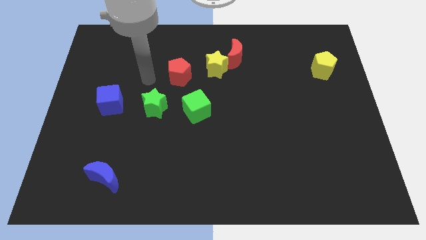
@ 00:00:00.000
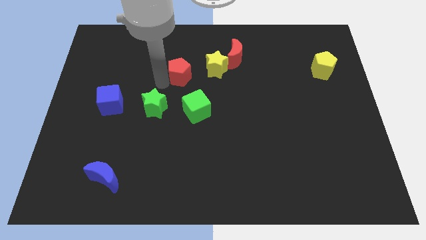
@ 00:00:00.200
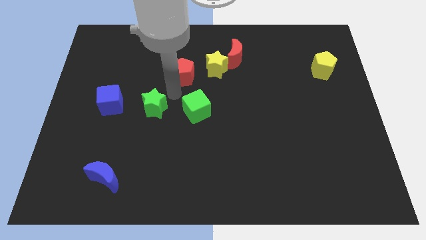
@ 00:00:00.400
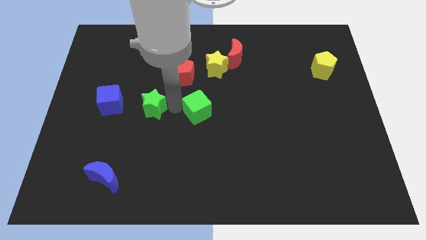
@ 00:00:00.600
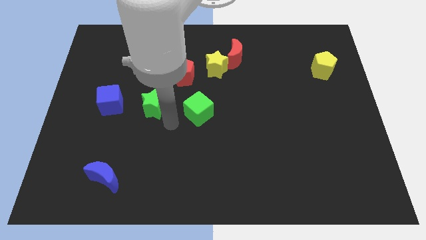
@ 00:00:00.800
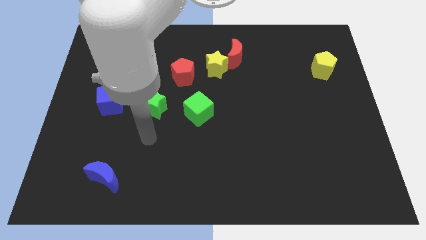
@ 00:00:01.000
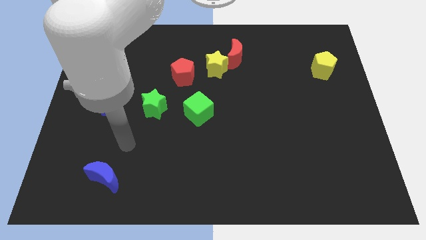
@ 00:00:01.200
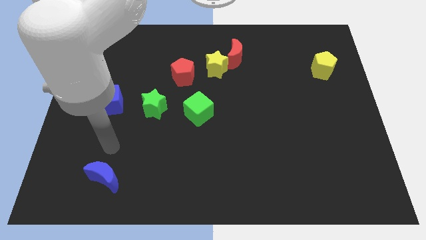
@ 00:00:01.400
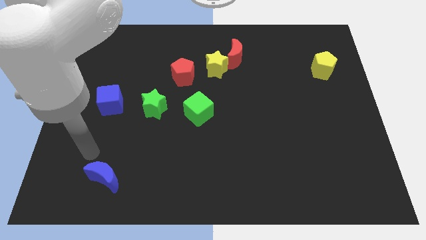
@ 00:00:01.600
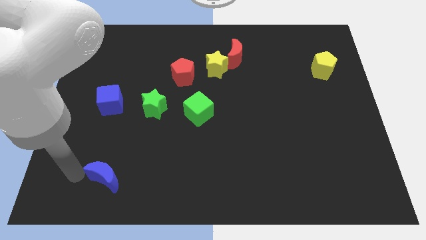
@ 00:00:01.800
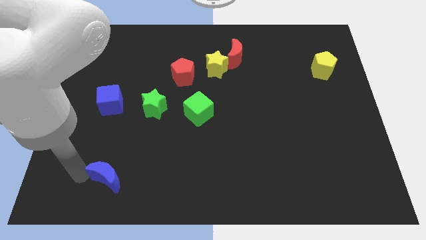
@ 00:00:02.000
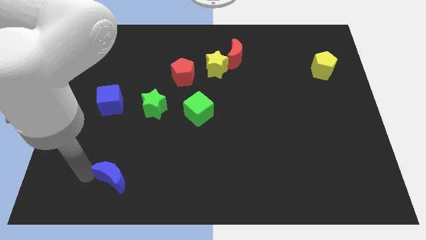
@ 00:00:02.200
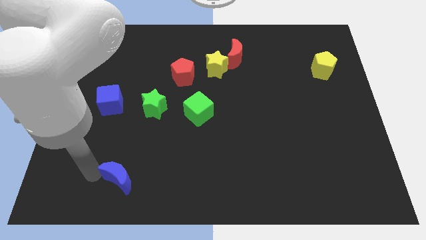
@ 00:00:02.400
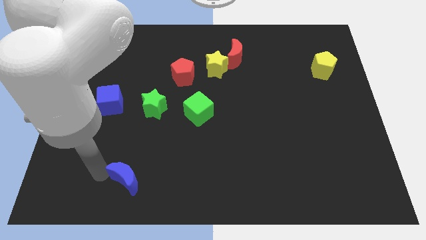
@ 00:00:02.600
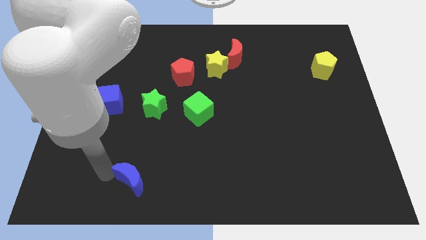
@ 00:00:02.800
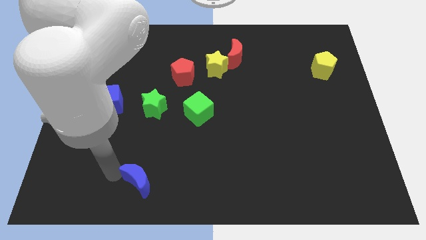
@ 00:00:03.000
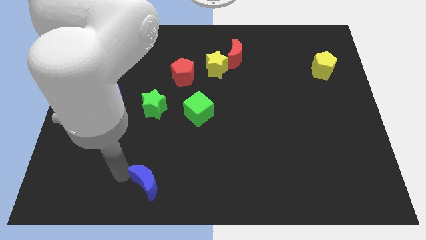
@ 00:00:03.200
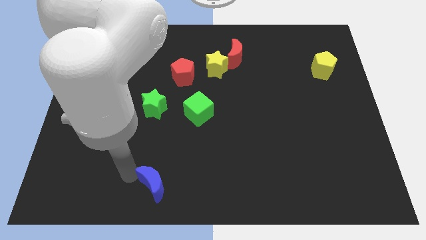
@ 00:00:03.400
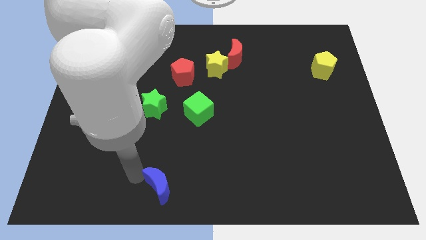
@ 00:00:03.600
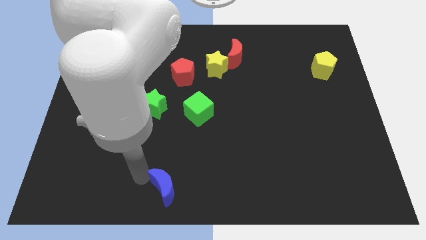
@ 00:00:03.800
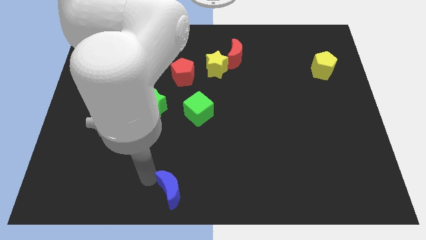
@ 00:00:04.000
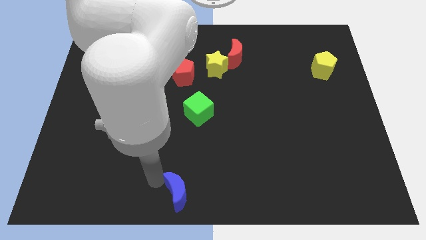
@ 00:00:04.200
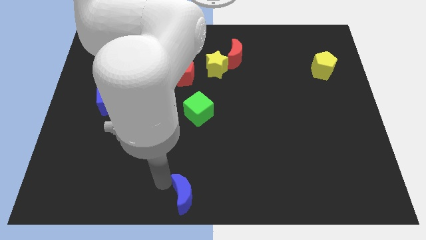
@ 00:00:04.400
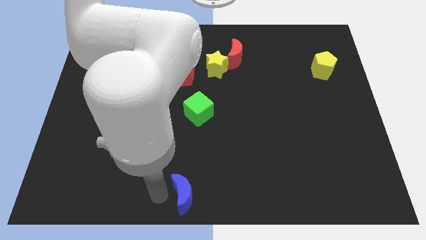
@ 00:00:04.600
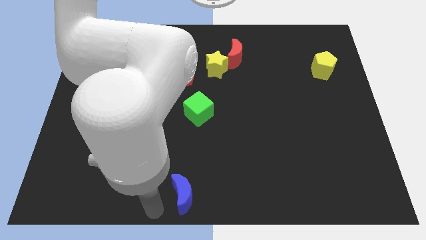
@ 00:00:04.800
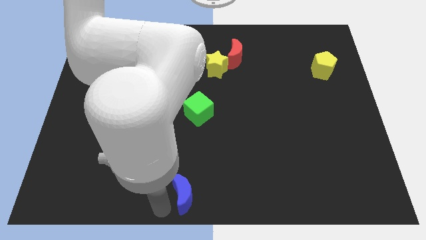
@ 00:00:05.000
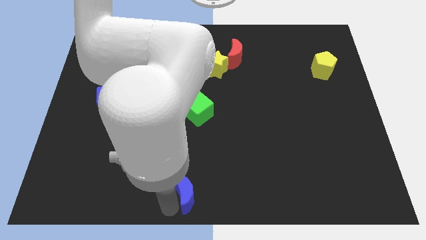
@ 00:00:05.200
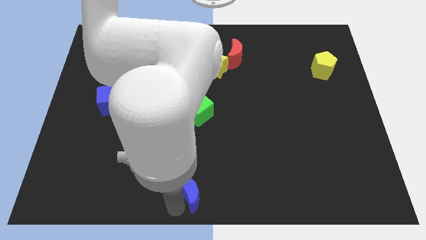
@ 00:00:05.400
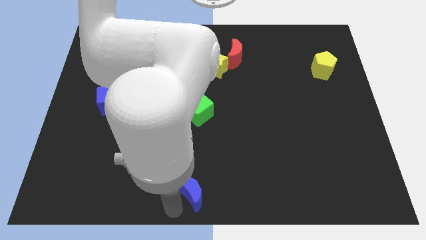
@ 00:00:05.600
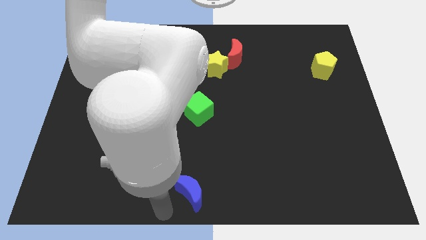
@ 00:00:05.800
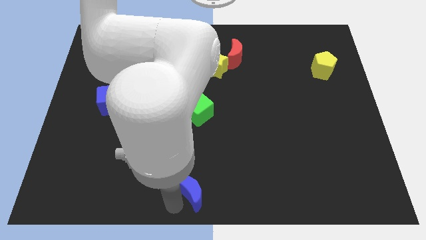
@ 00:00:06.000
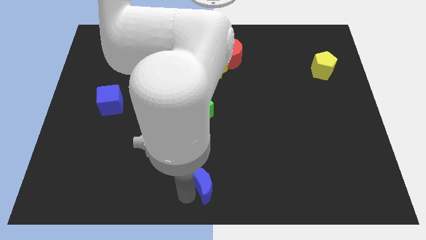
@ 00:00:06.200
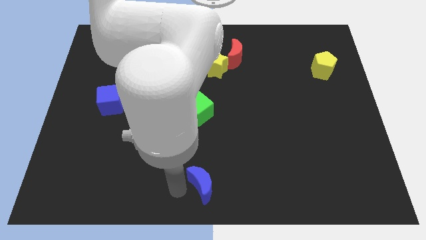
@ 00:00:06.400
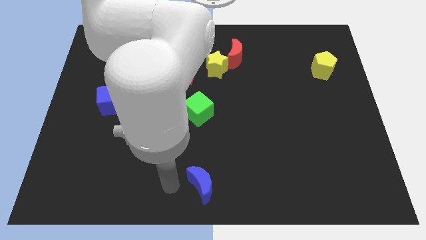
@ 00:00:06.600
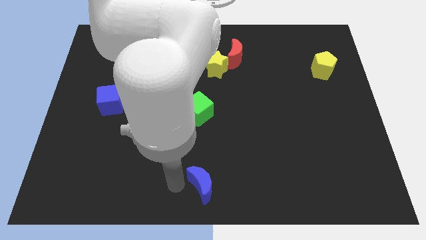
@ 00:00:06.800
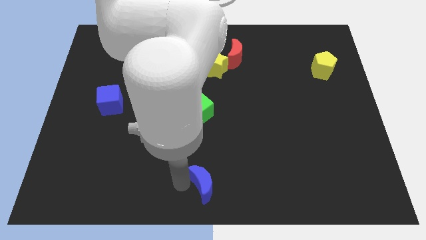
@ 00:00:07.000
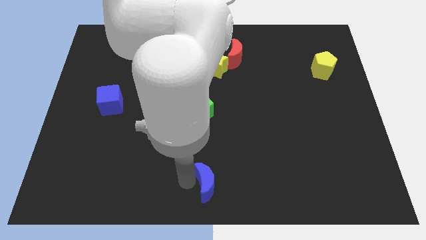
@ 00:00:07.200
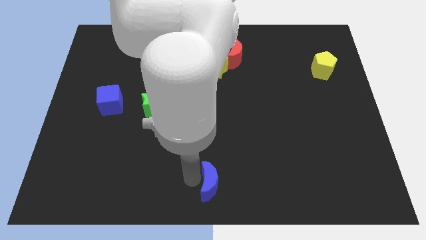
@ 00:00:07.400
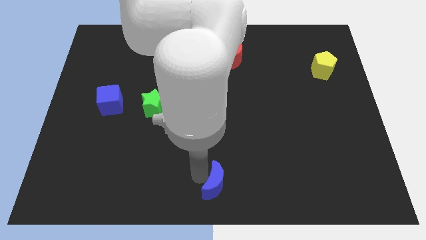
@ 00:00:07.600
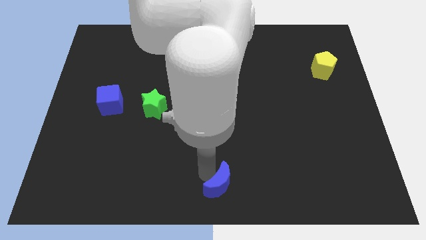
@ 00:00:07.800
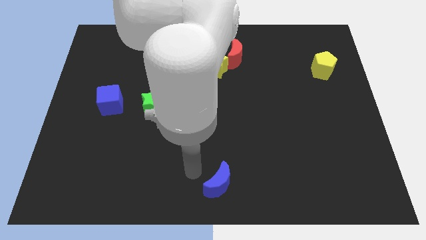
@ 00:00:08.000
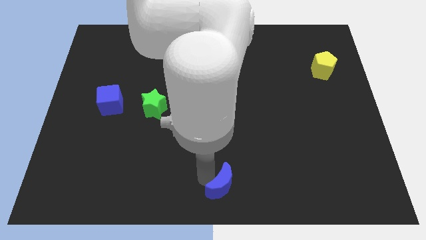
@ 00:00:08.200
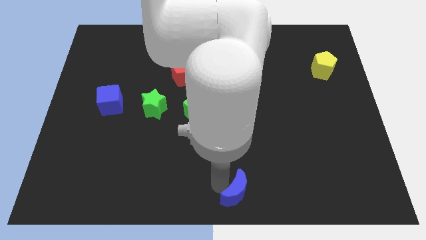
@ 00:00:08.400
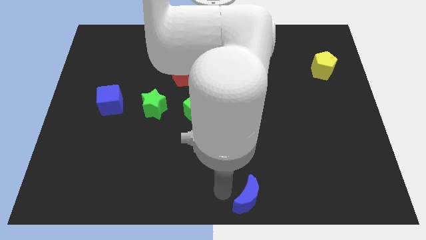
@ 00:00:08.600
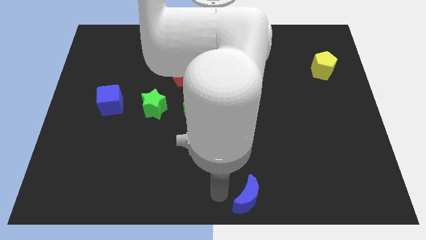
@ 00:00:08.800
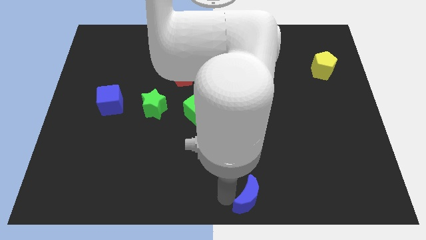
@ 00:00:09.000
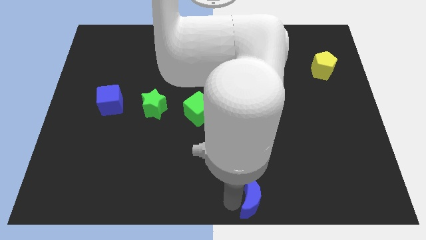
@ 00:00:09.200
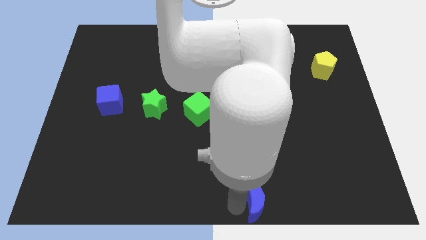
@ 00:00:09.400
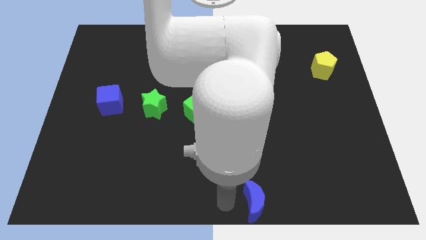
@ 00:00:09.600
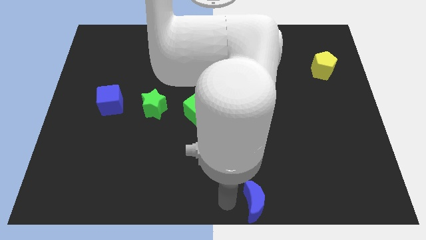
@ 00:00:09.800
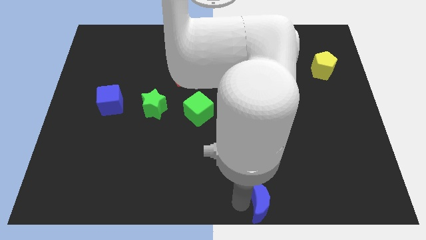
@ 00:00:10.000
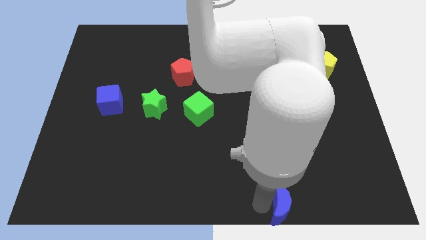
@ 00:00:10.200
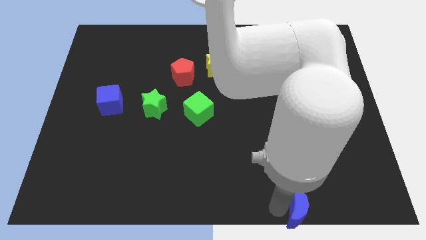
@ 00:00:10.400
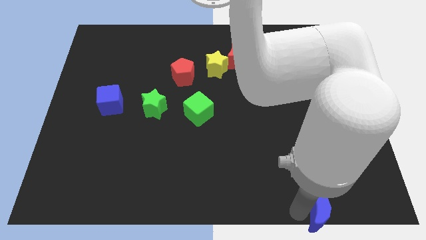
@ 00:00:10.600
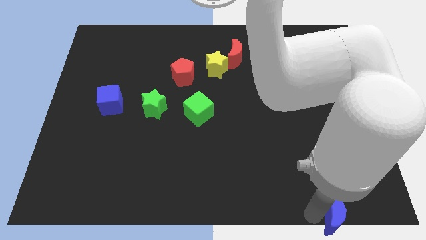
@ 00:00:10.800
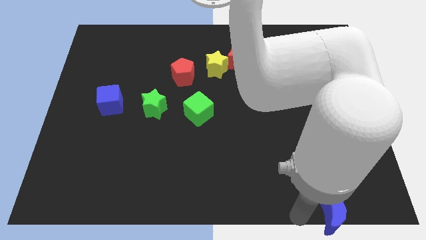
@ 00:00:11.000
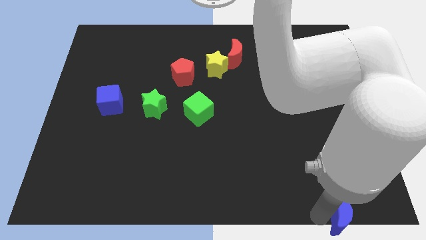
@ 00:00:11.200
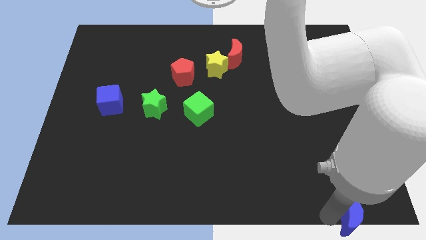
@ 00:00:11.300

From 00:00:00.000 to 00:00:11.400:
slide the blue moon to the bottom right of the board
